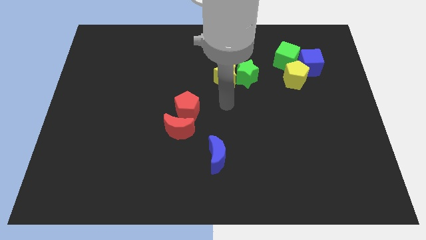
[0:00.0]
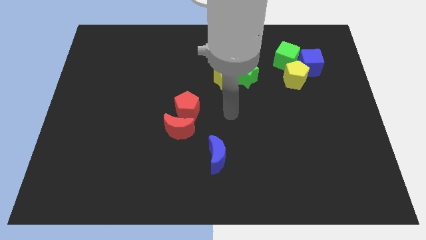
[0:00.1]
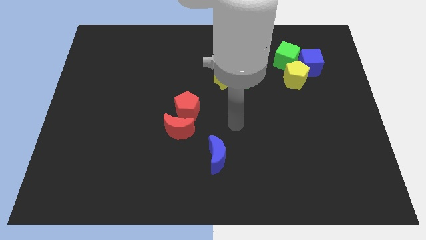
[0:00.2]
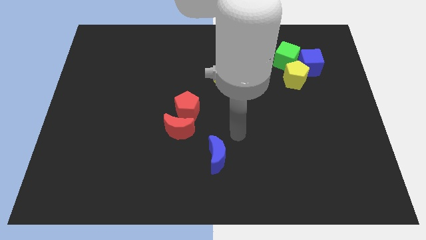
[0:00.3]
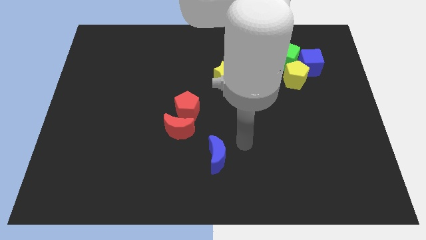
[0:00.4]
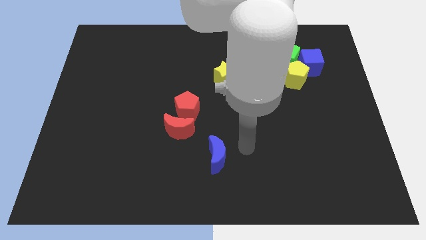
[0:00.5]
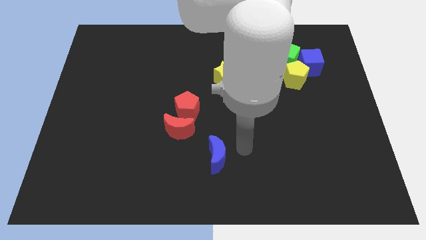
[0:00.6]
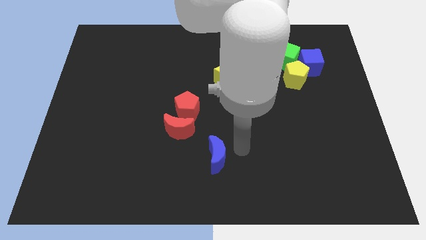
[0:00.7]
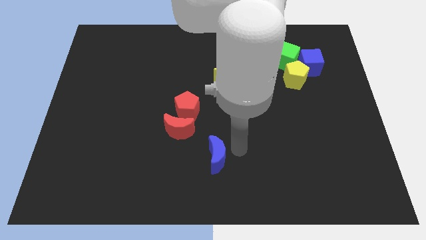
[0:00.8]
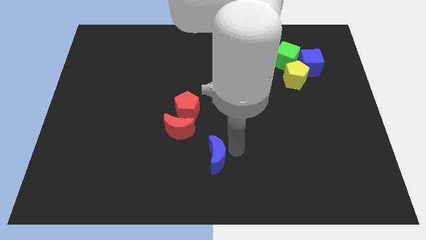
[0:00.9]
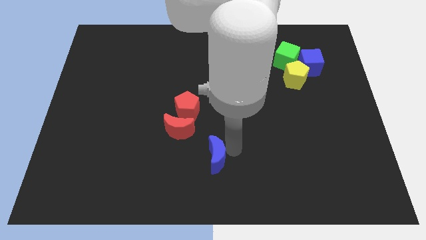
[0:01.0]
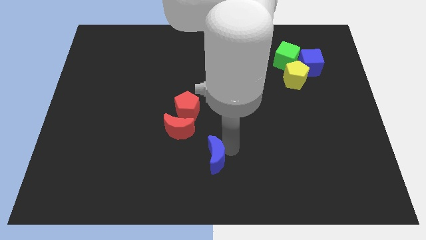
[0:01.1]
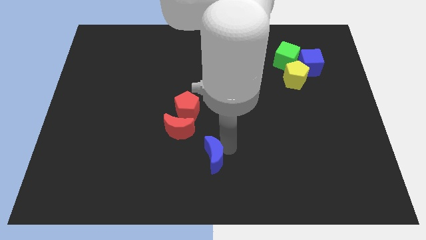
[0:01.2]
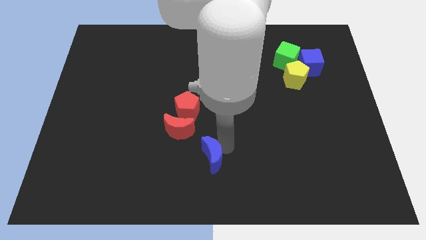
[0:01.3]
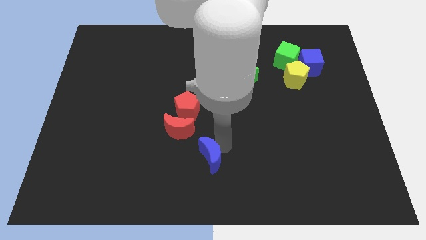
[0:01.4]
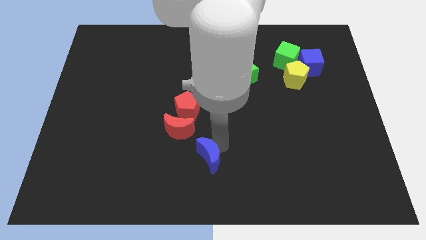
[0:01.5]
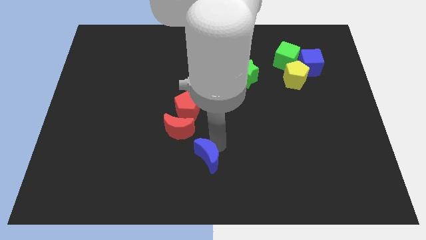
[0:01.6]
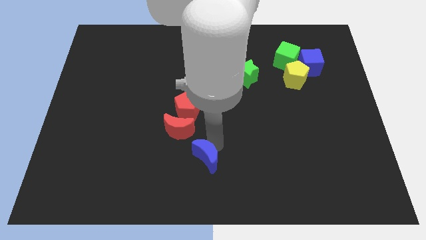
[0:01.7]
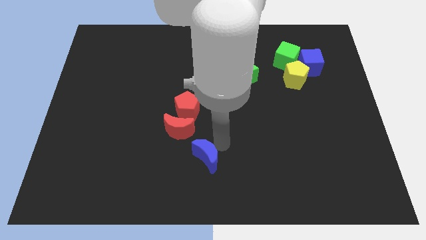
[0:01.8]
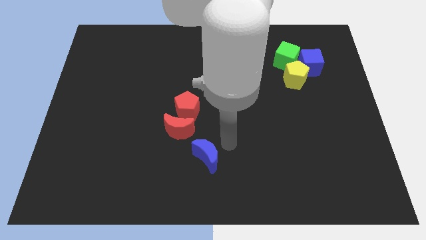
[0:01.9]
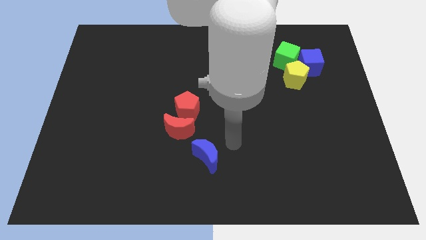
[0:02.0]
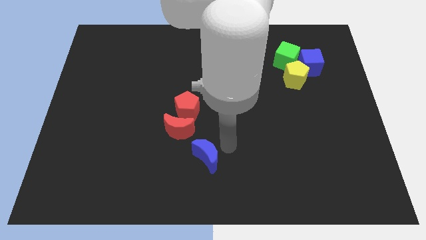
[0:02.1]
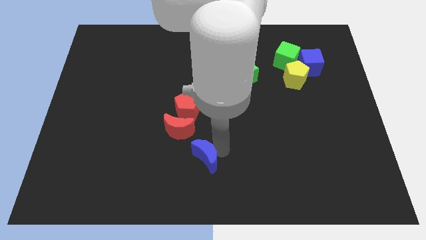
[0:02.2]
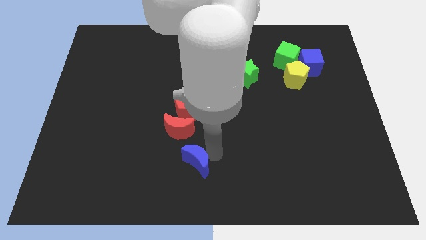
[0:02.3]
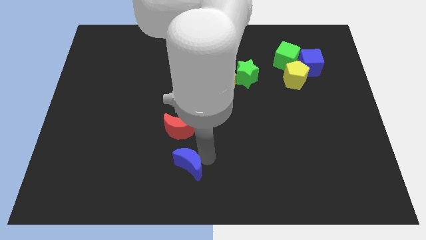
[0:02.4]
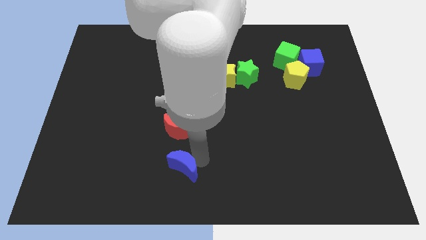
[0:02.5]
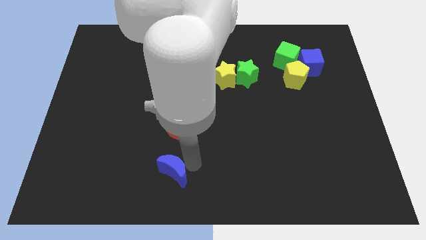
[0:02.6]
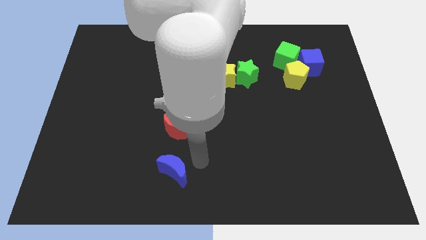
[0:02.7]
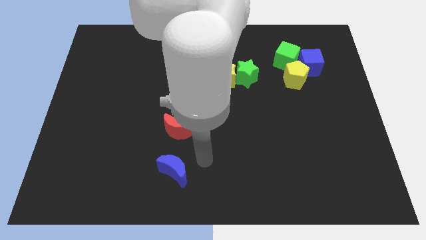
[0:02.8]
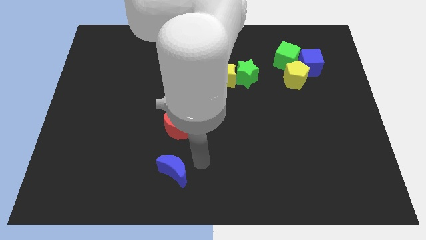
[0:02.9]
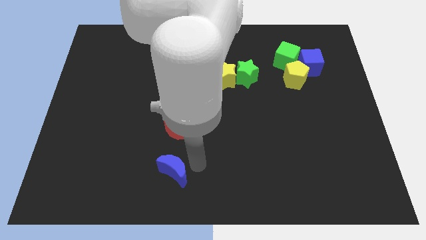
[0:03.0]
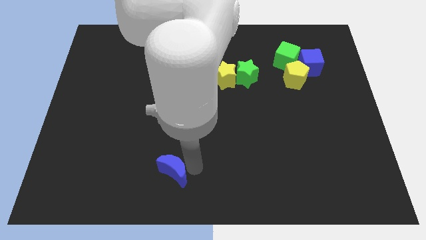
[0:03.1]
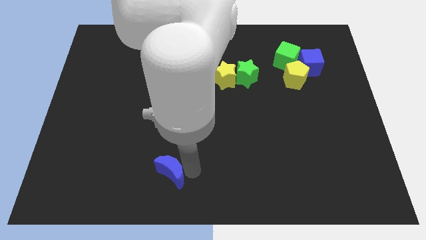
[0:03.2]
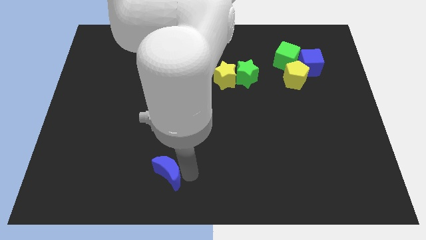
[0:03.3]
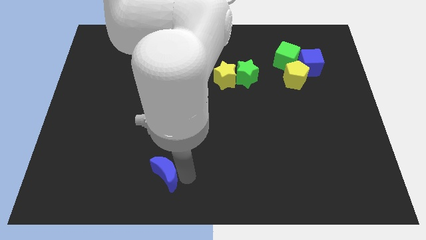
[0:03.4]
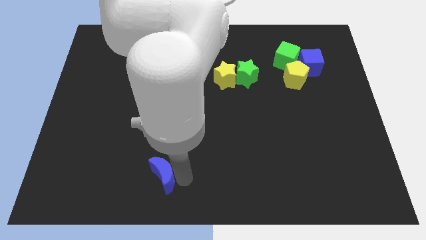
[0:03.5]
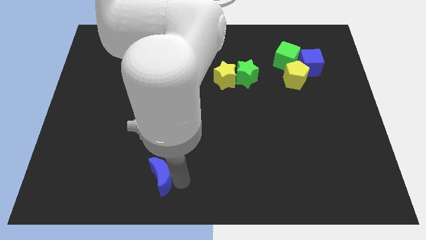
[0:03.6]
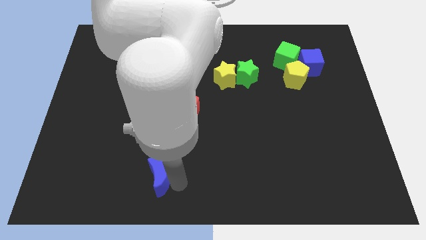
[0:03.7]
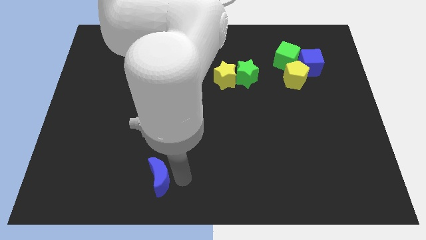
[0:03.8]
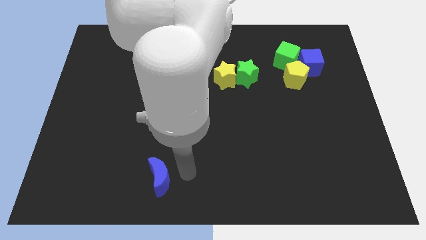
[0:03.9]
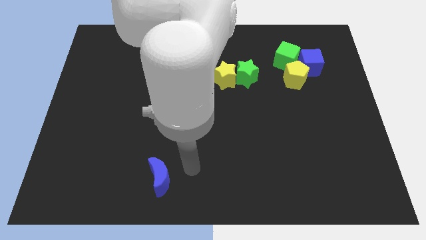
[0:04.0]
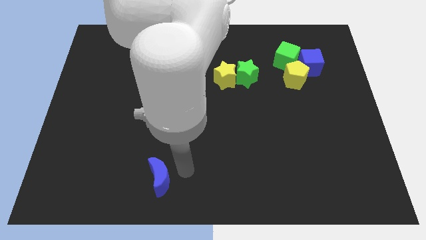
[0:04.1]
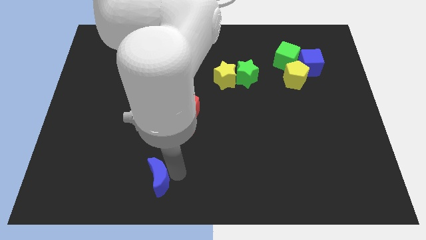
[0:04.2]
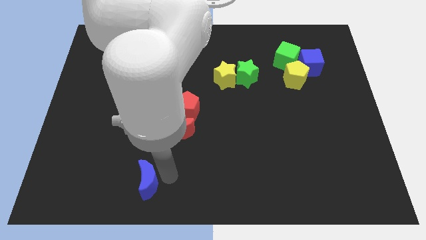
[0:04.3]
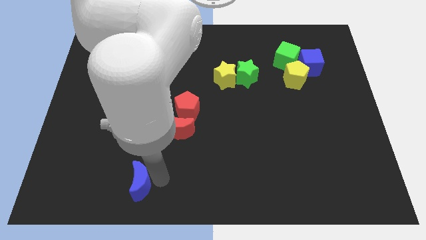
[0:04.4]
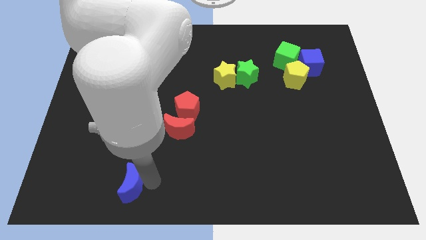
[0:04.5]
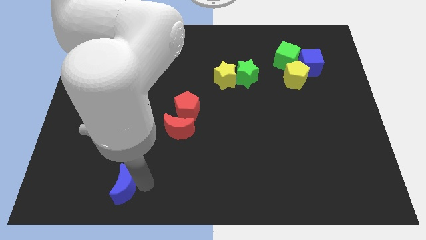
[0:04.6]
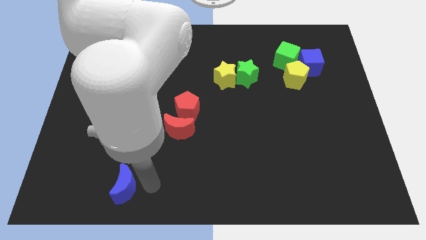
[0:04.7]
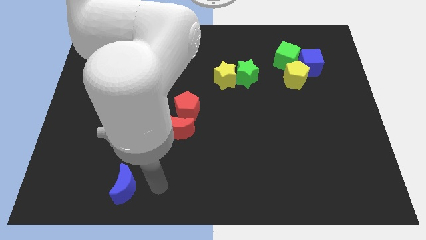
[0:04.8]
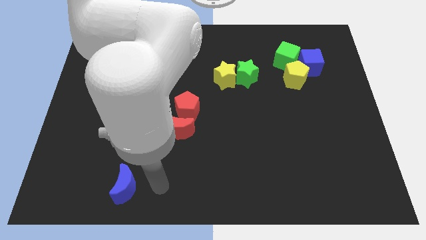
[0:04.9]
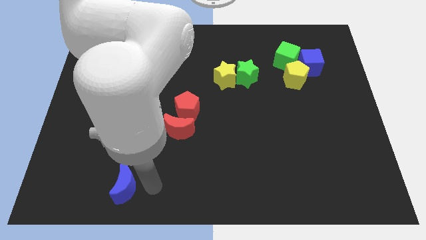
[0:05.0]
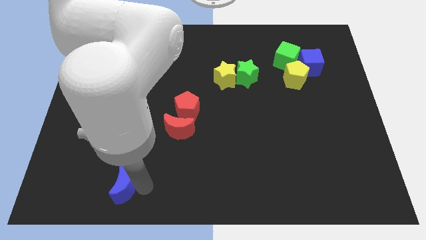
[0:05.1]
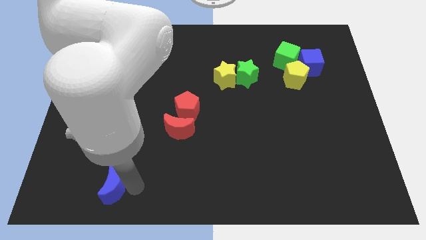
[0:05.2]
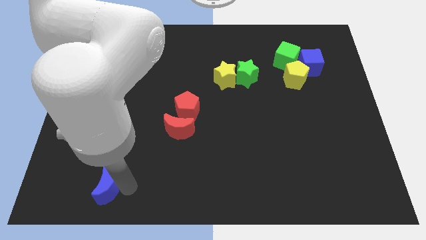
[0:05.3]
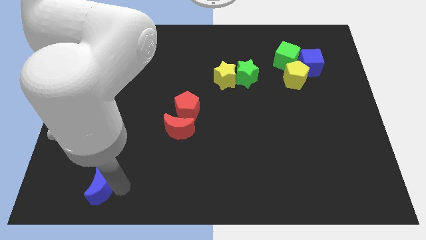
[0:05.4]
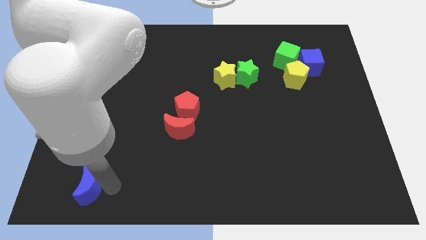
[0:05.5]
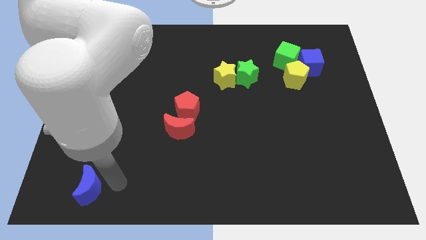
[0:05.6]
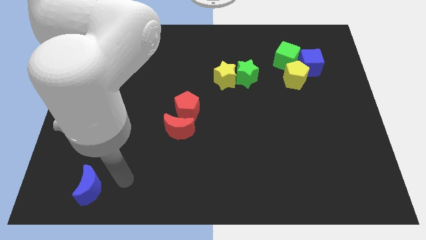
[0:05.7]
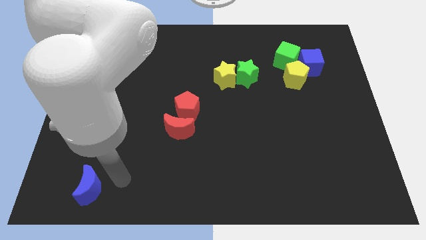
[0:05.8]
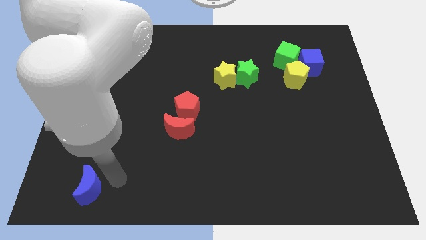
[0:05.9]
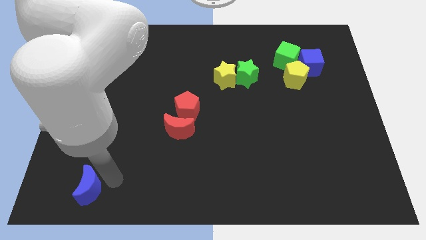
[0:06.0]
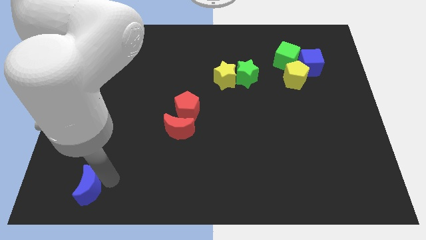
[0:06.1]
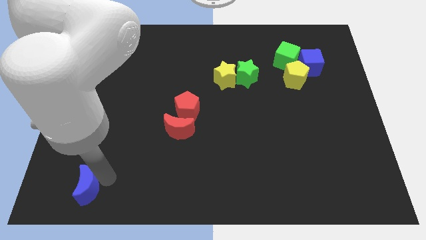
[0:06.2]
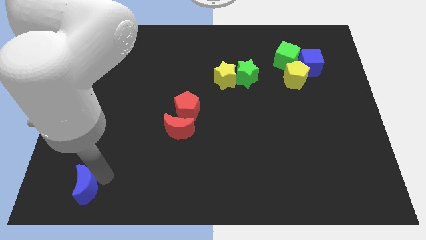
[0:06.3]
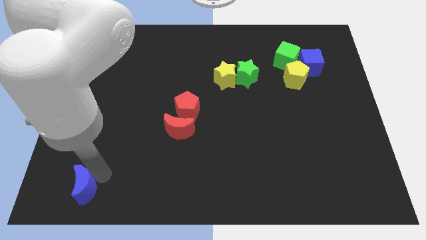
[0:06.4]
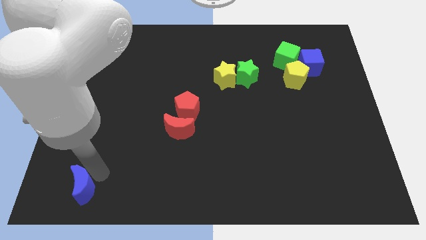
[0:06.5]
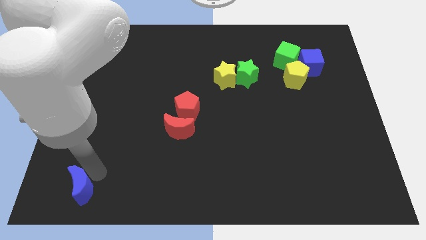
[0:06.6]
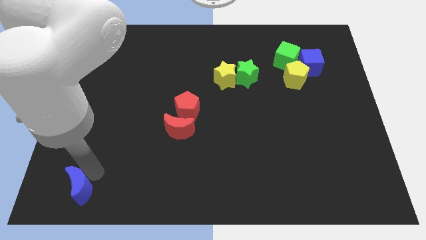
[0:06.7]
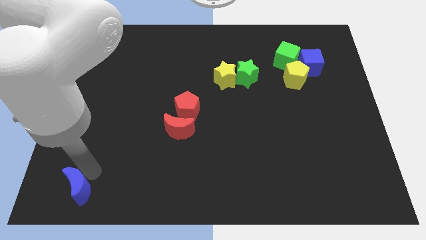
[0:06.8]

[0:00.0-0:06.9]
put the blue moon to the bottom left corner
